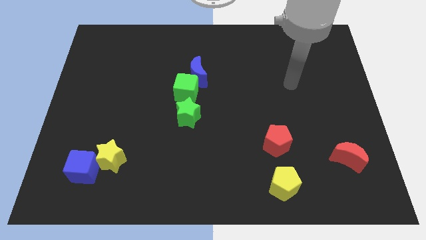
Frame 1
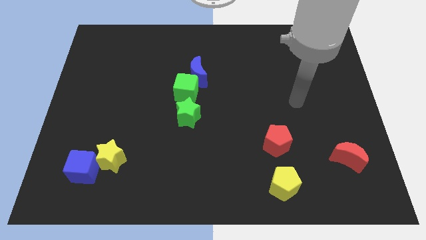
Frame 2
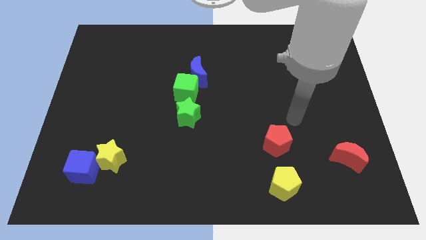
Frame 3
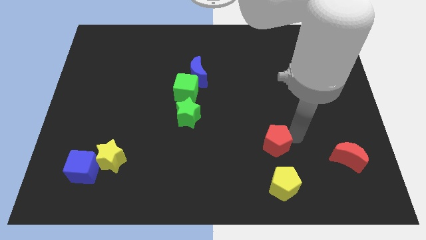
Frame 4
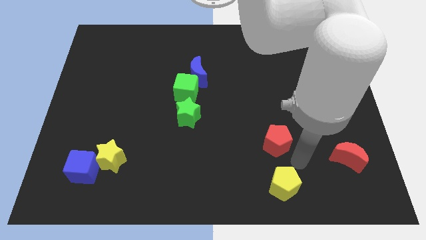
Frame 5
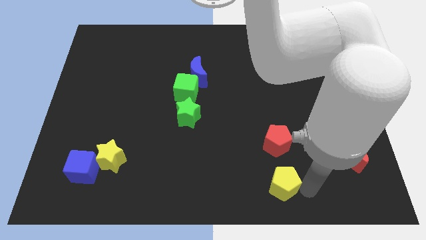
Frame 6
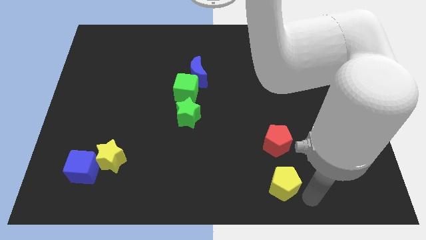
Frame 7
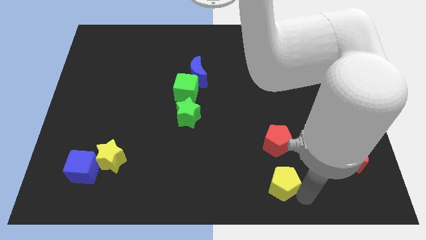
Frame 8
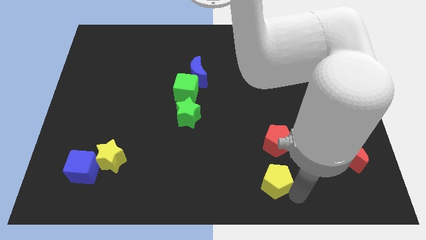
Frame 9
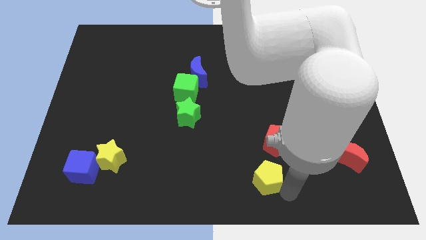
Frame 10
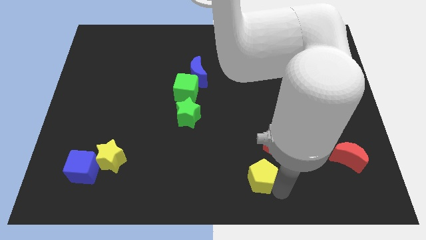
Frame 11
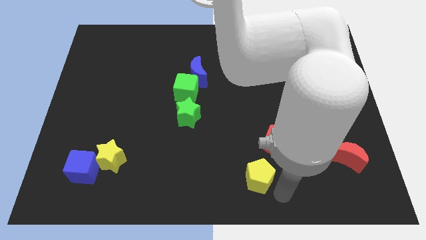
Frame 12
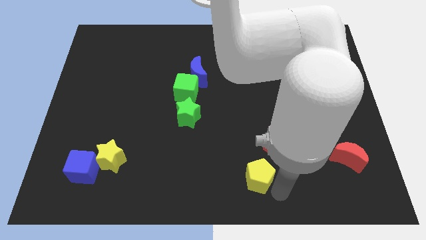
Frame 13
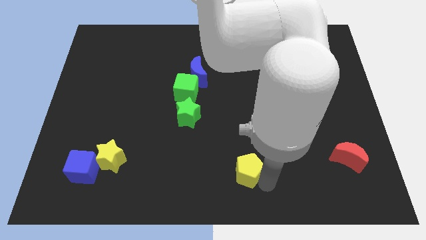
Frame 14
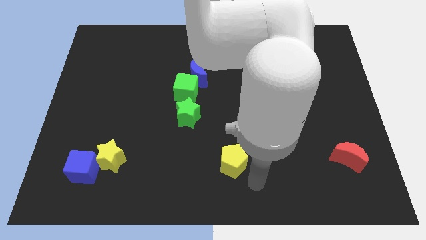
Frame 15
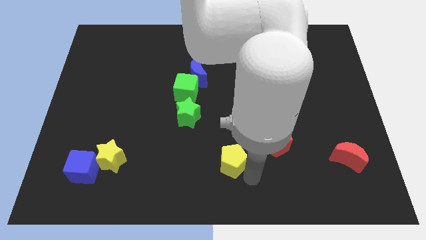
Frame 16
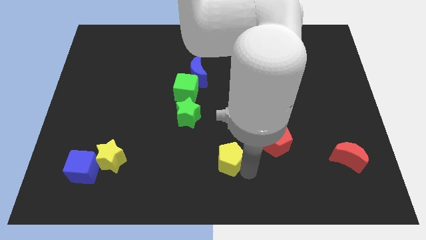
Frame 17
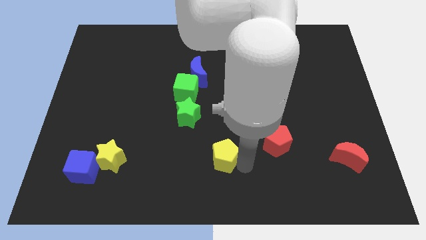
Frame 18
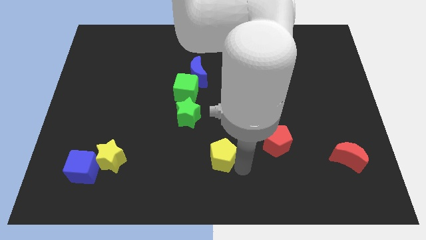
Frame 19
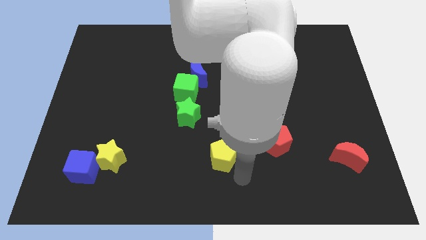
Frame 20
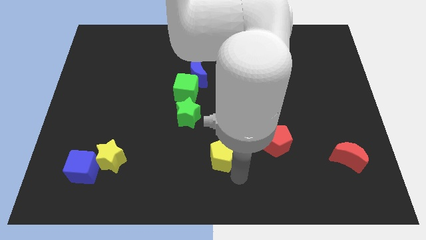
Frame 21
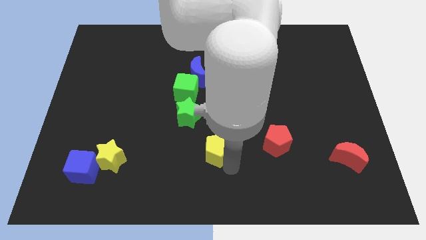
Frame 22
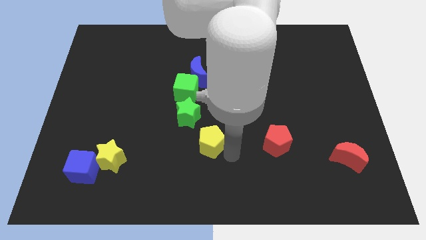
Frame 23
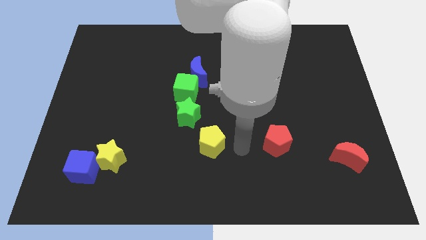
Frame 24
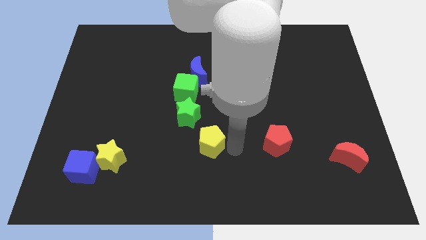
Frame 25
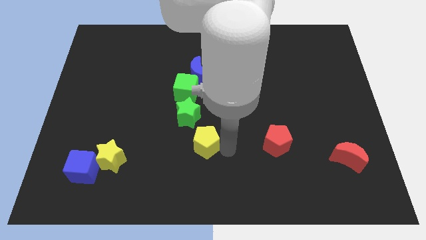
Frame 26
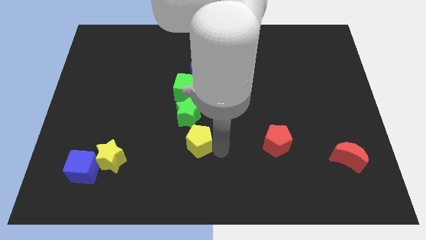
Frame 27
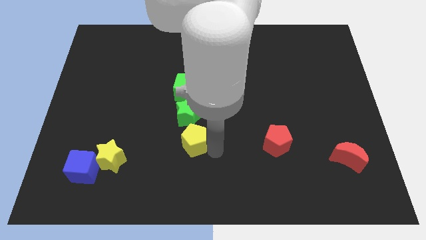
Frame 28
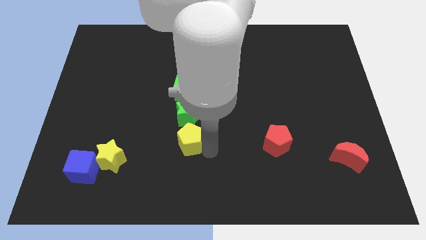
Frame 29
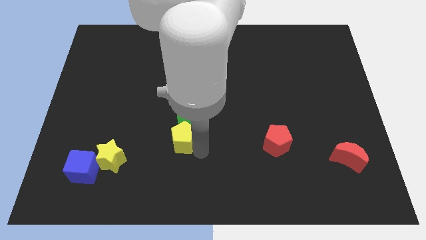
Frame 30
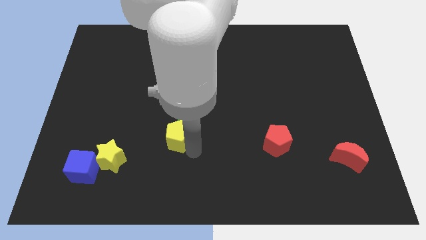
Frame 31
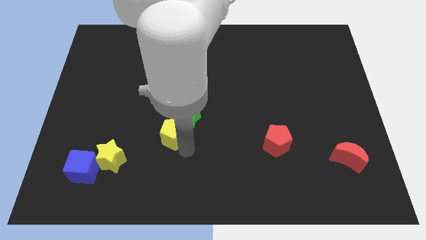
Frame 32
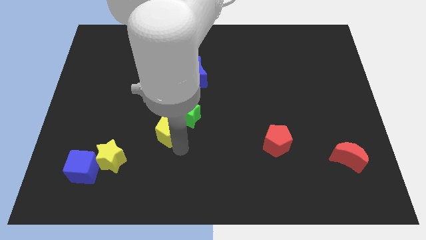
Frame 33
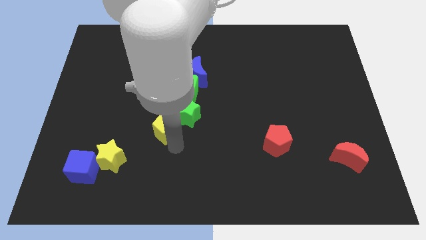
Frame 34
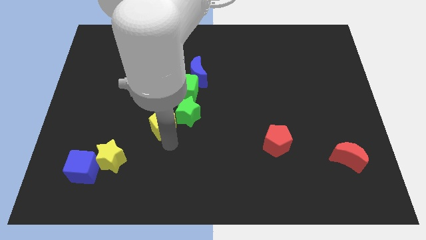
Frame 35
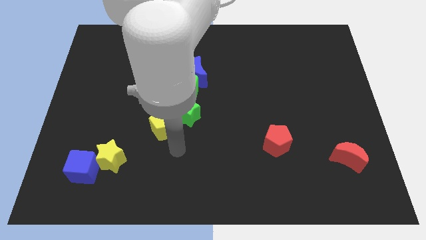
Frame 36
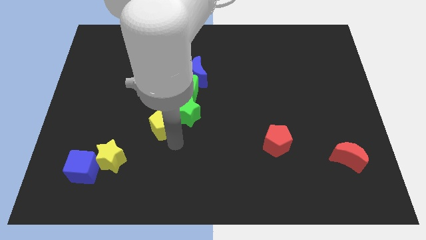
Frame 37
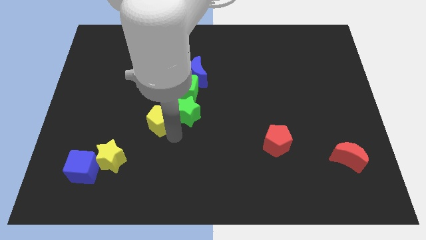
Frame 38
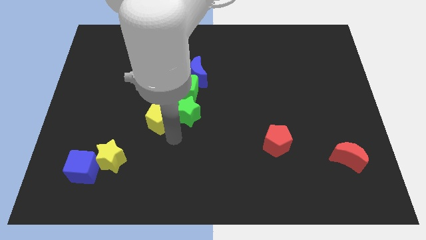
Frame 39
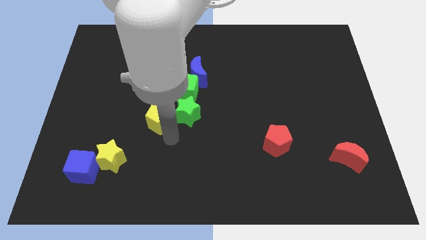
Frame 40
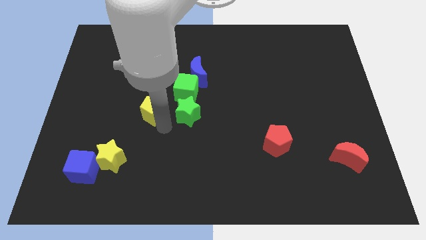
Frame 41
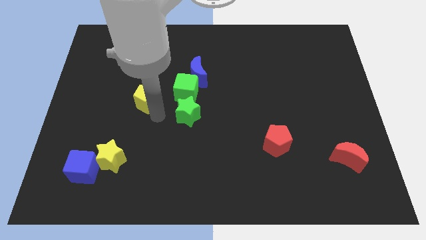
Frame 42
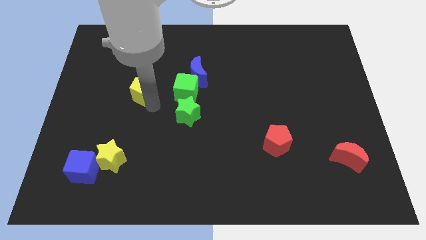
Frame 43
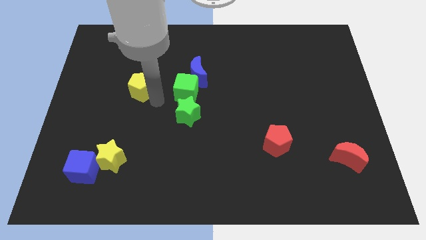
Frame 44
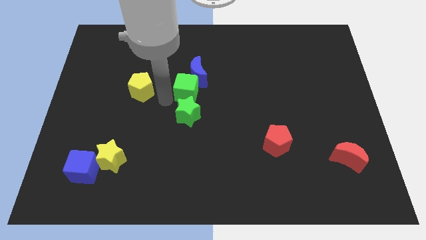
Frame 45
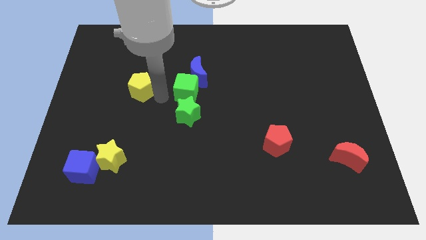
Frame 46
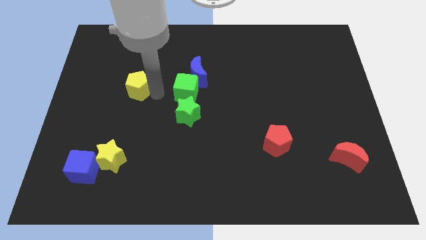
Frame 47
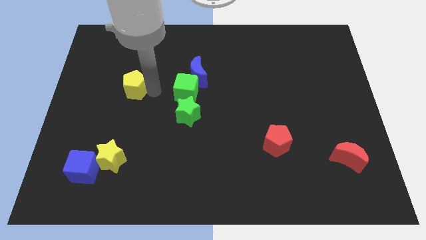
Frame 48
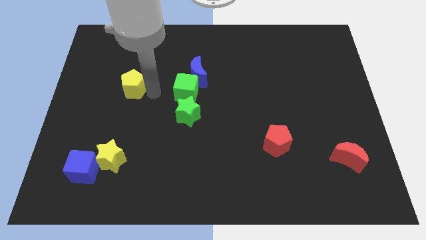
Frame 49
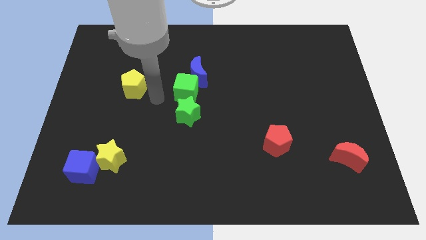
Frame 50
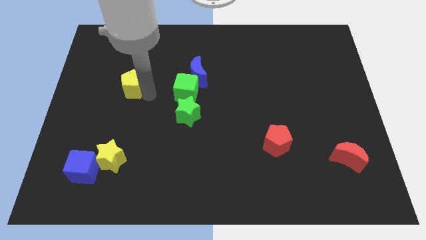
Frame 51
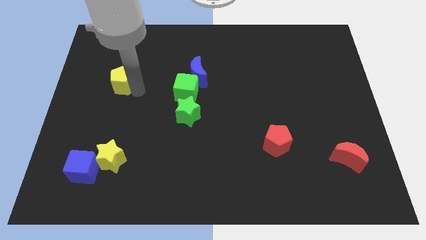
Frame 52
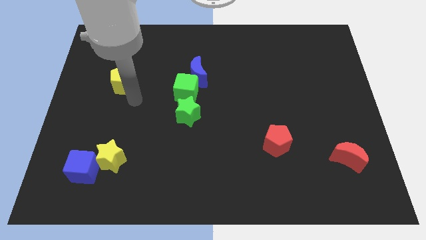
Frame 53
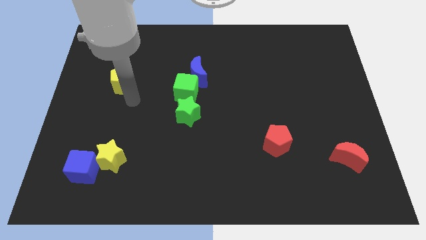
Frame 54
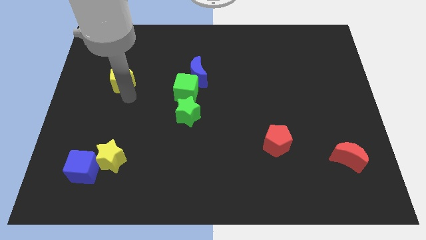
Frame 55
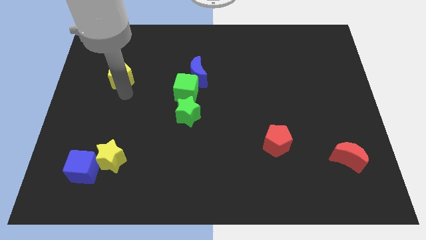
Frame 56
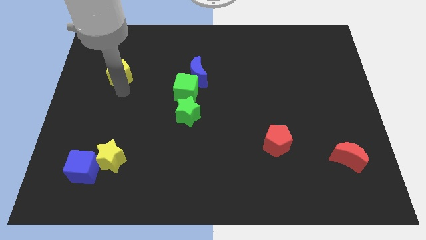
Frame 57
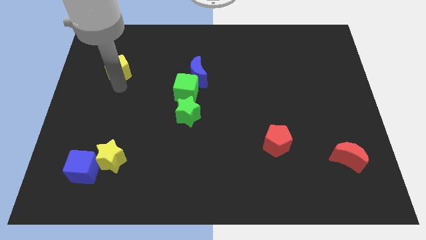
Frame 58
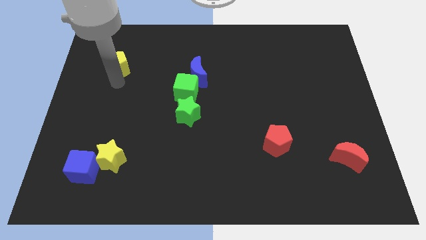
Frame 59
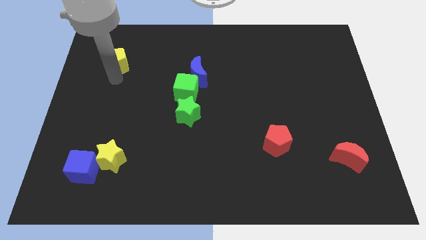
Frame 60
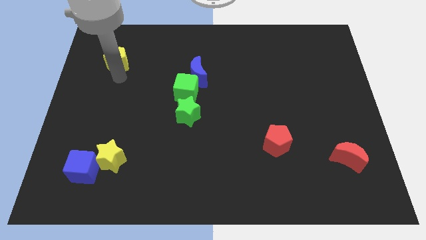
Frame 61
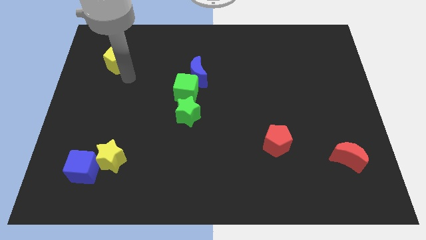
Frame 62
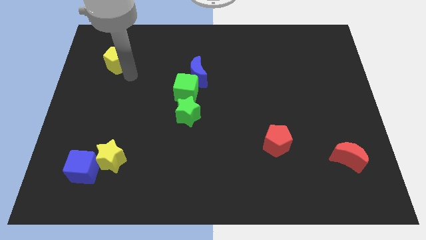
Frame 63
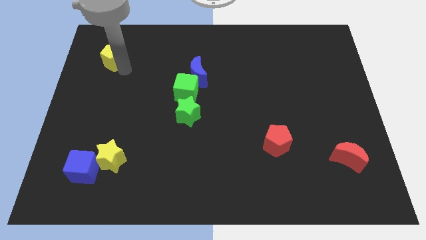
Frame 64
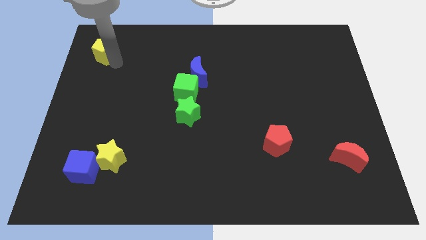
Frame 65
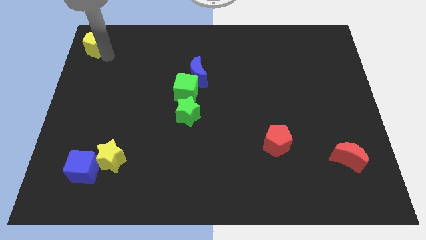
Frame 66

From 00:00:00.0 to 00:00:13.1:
move the yellow pentagon to the top left corner
